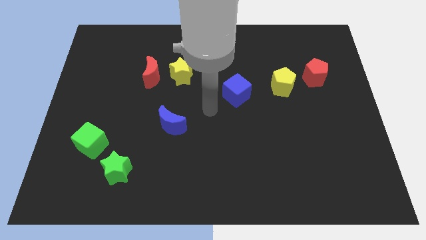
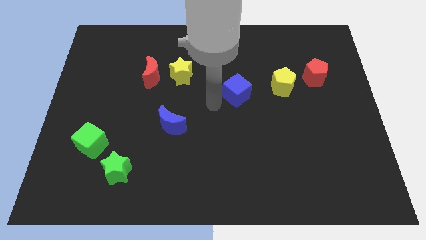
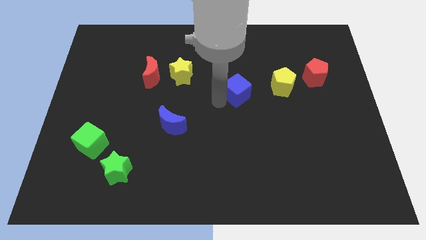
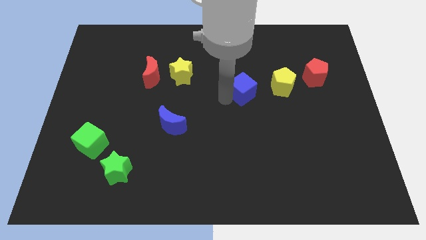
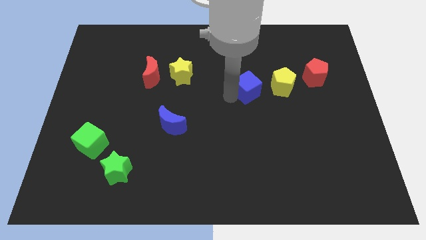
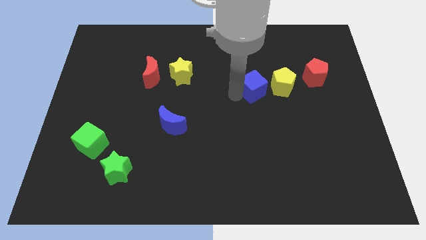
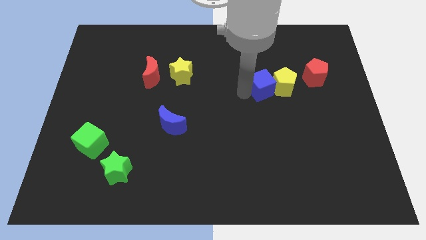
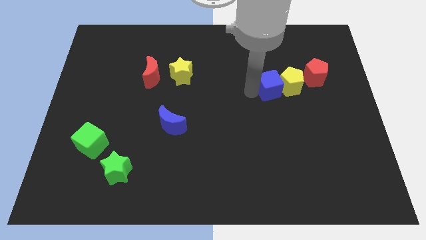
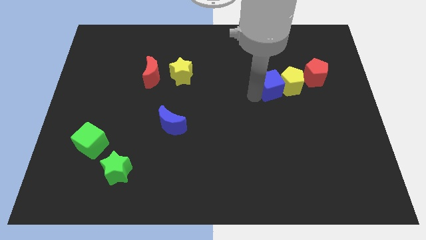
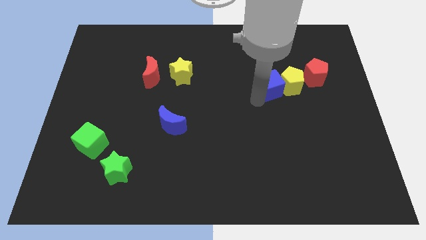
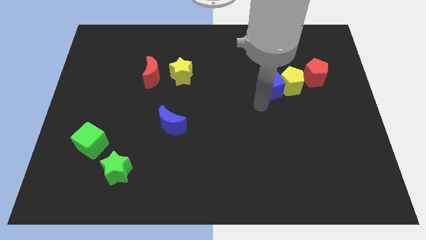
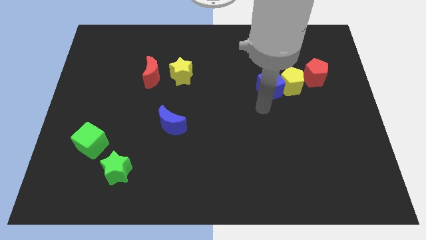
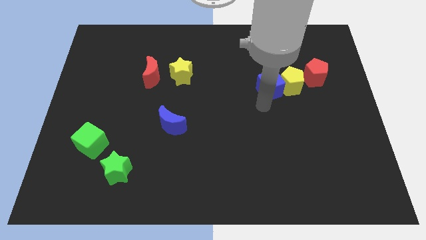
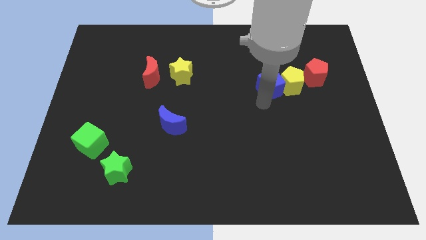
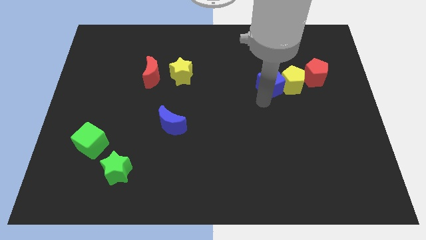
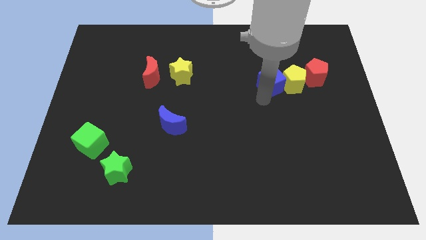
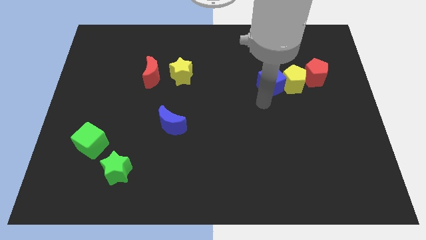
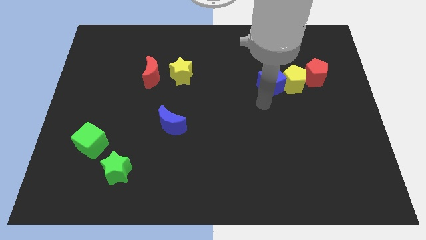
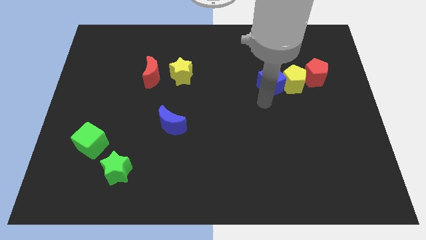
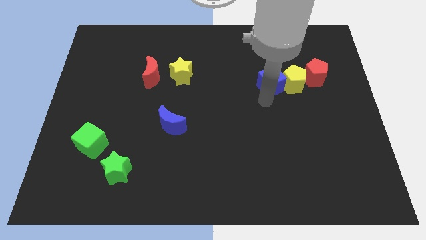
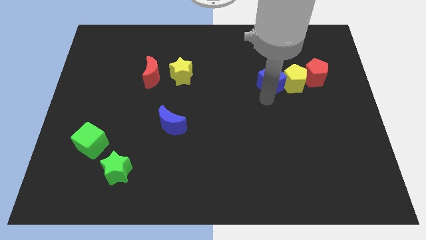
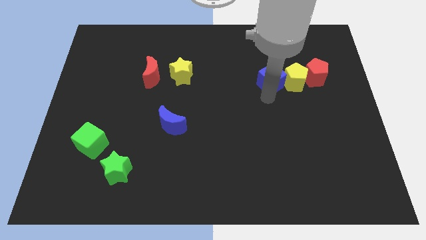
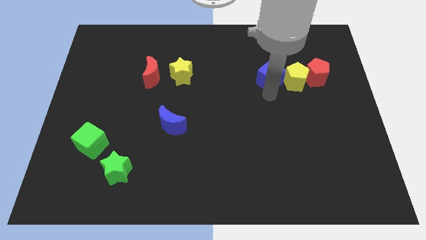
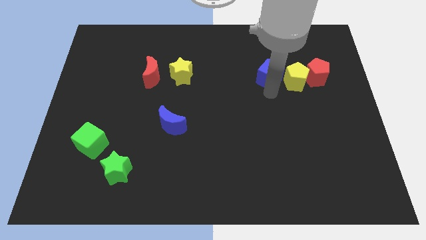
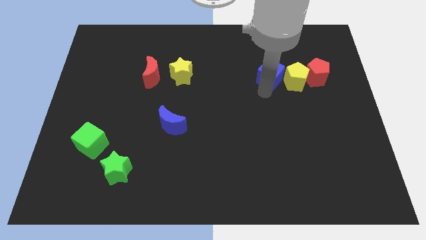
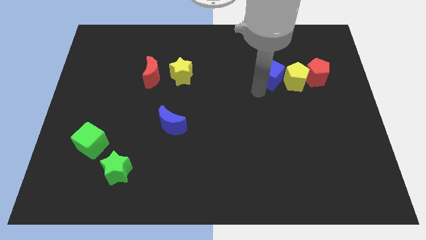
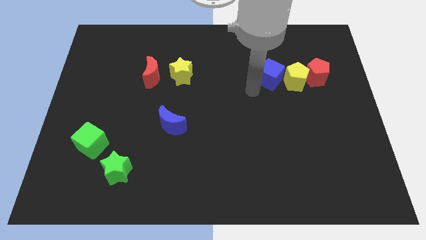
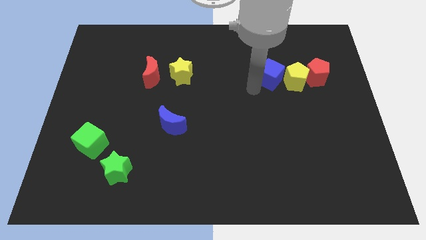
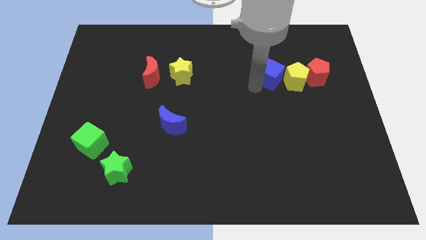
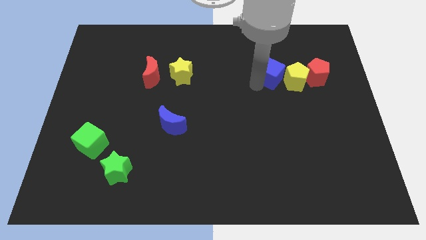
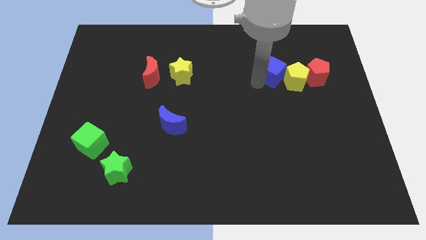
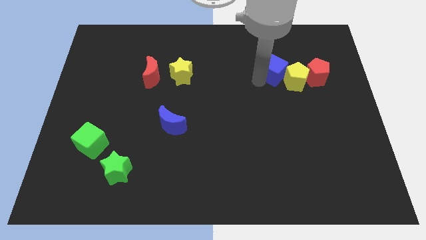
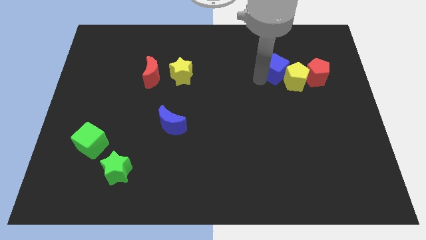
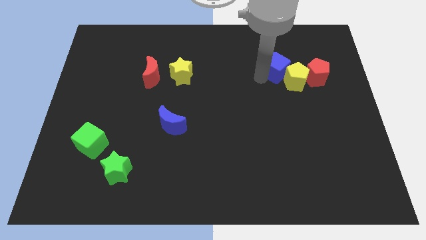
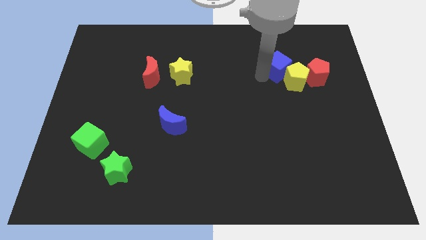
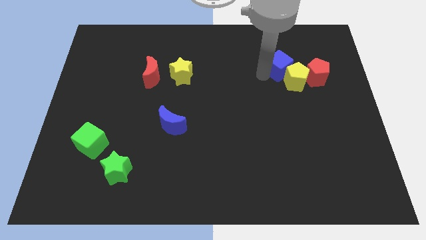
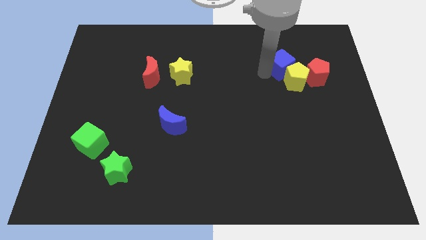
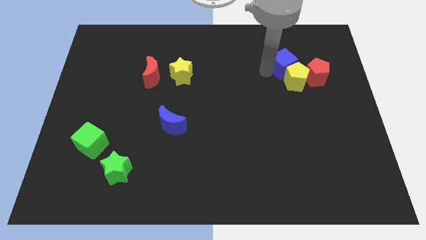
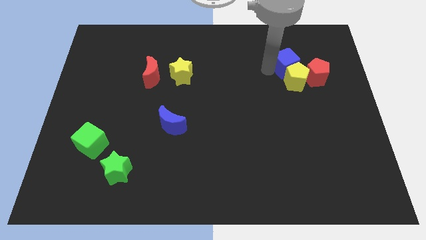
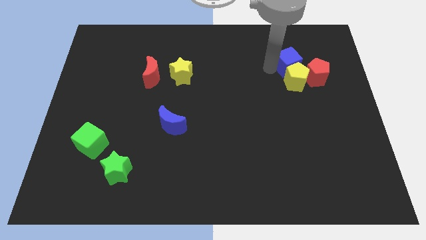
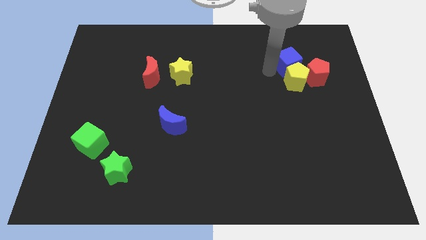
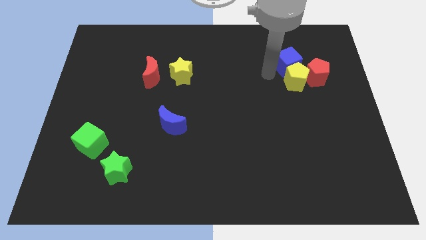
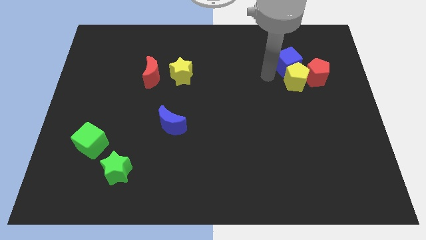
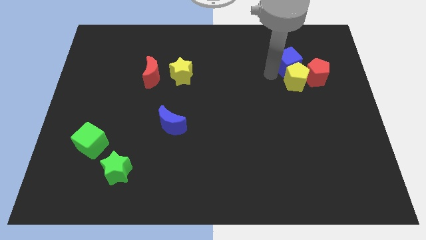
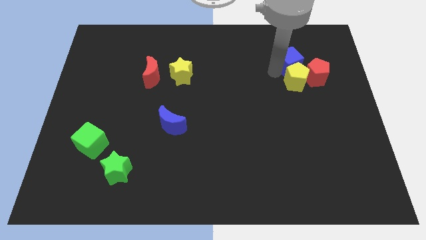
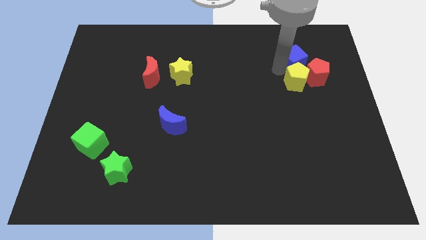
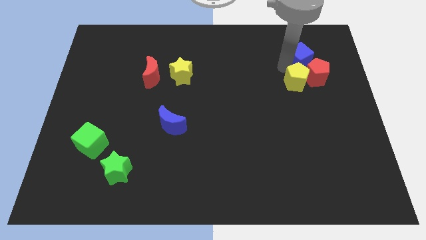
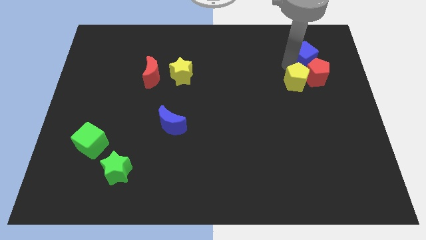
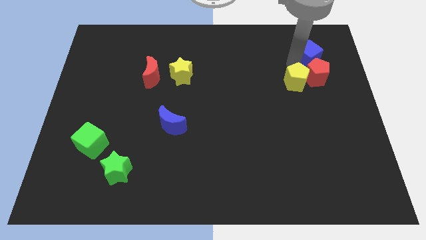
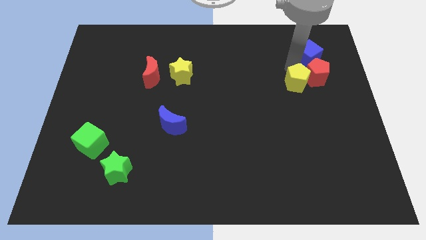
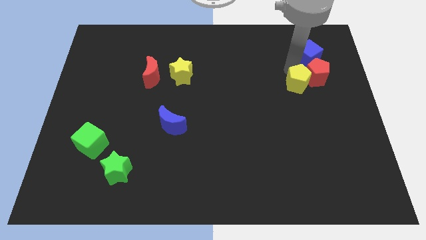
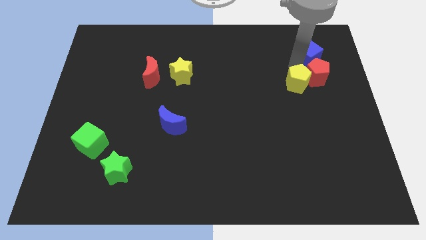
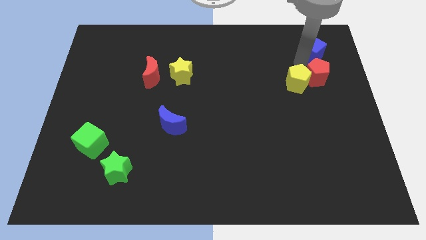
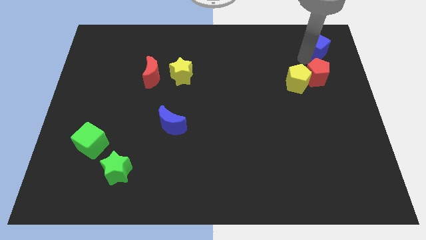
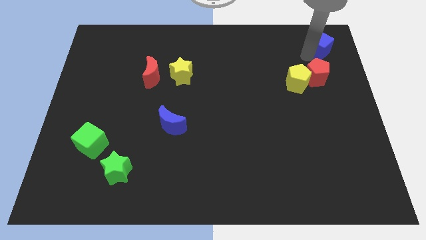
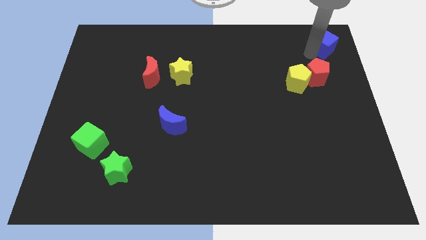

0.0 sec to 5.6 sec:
slide the blue cube to the upper right corner

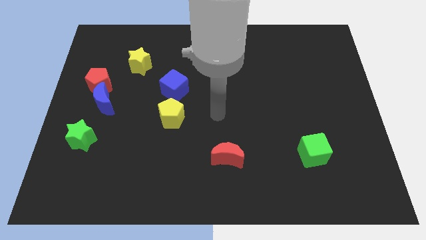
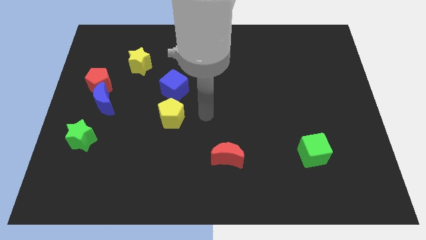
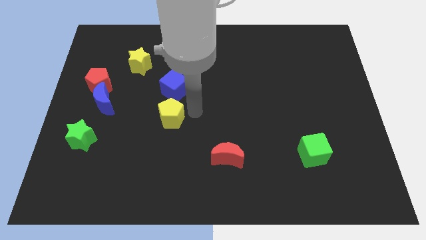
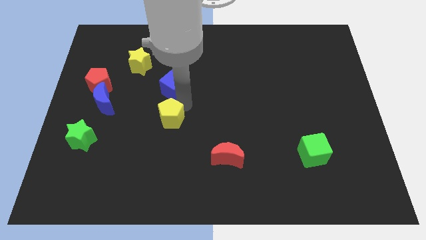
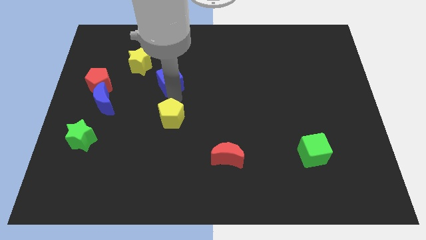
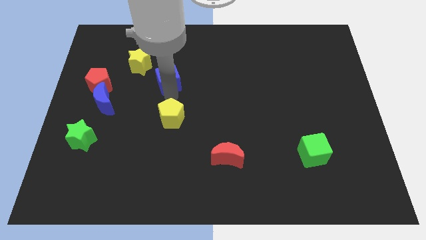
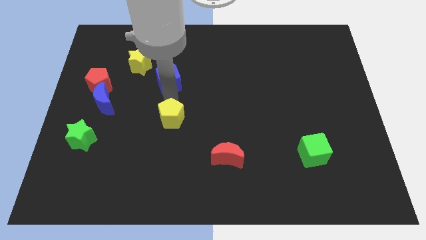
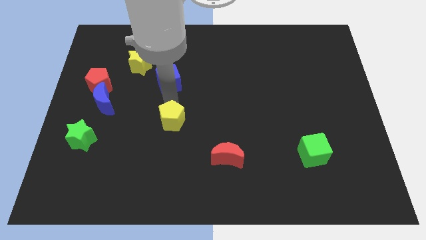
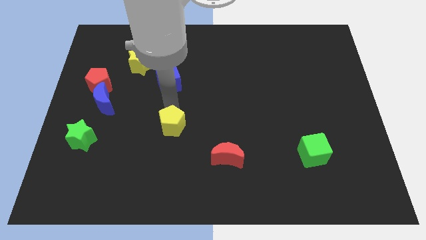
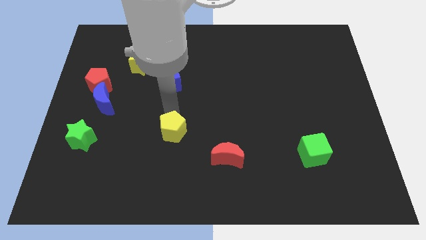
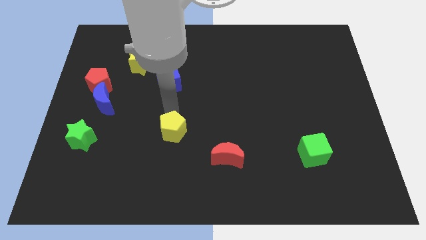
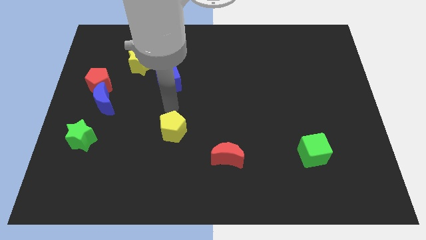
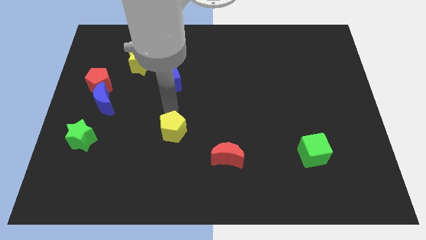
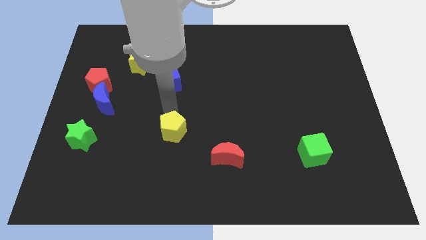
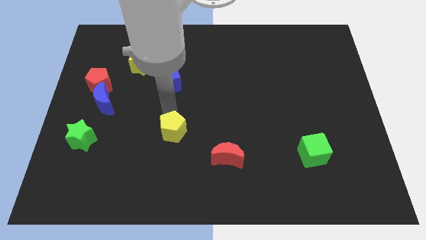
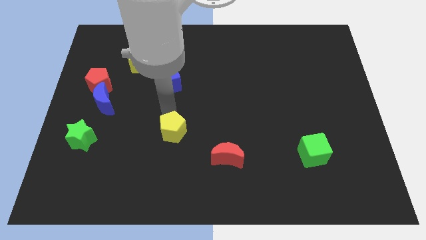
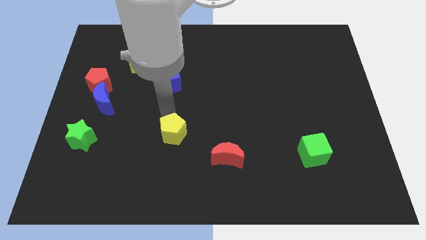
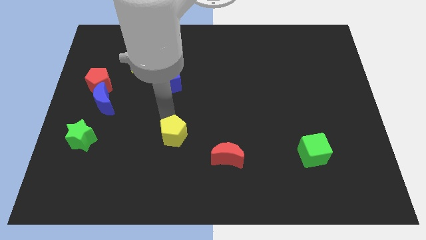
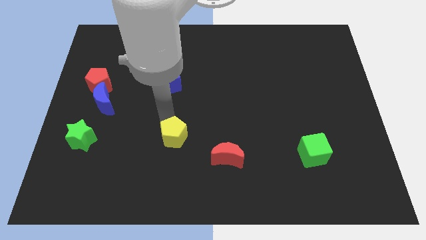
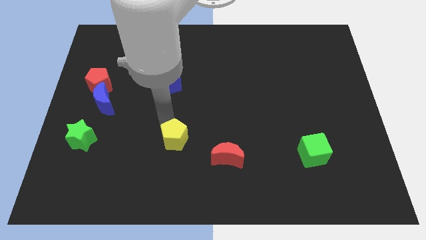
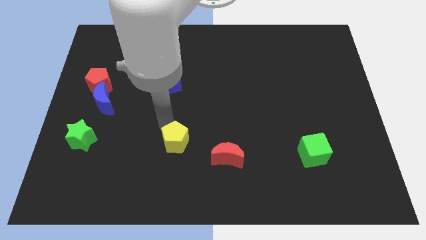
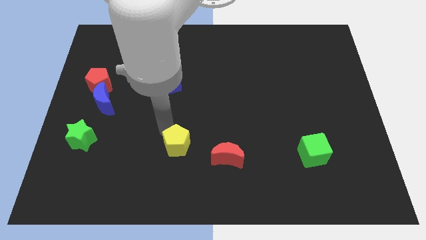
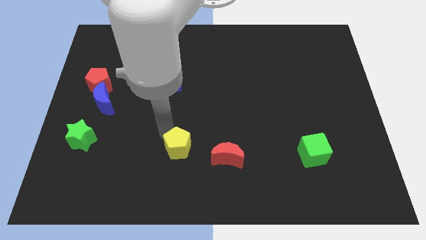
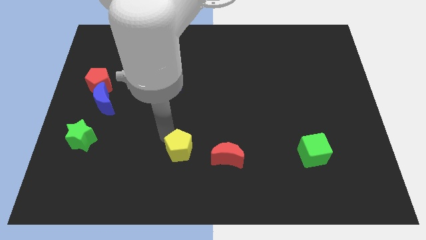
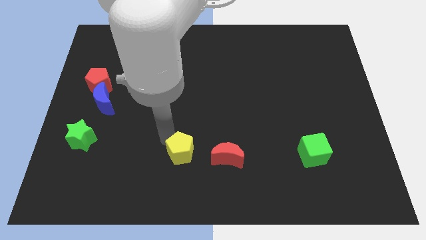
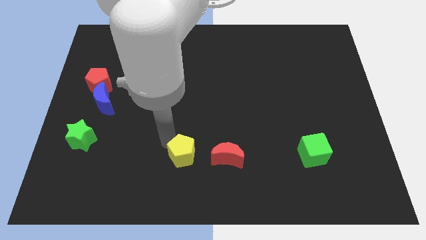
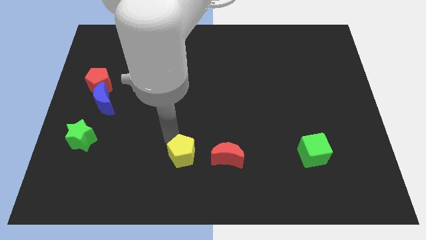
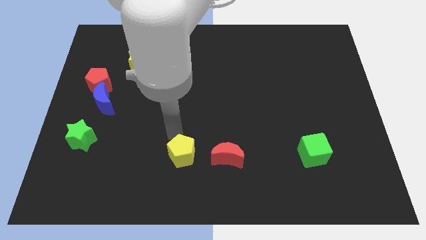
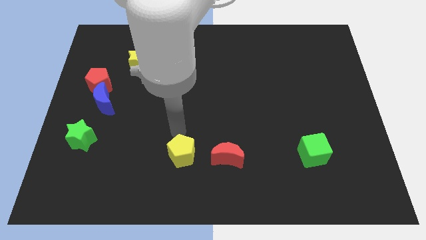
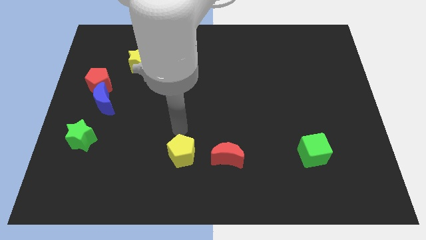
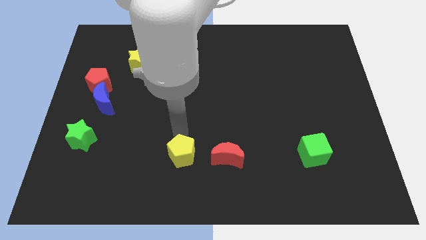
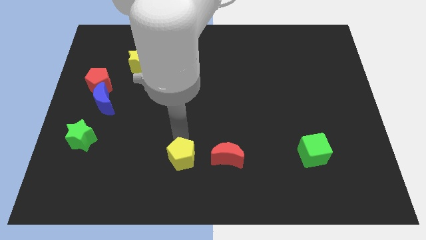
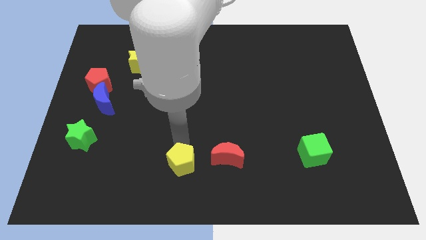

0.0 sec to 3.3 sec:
push the yellow pentagon to the bottom side
